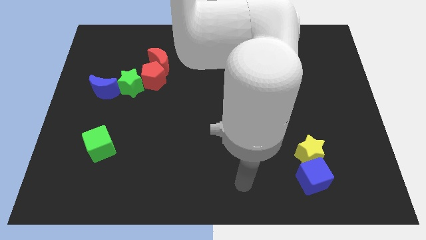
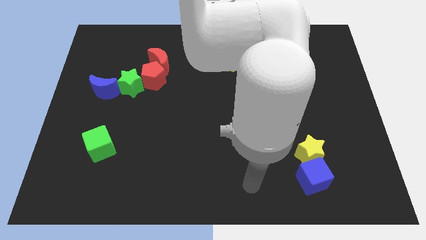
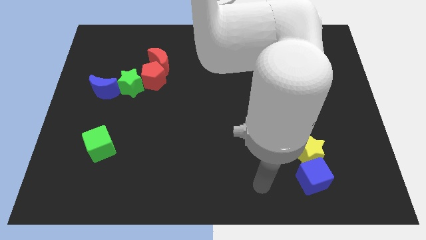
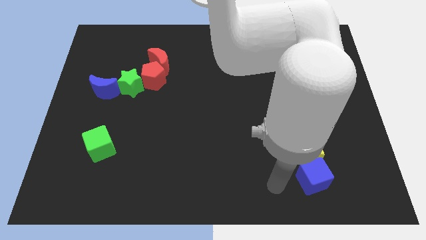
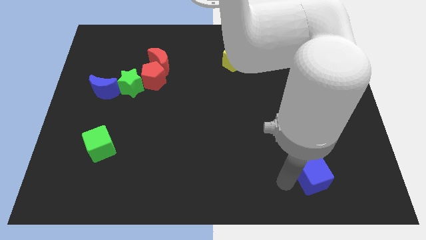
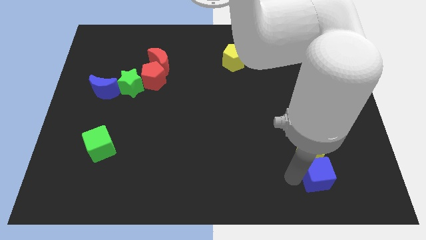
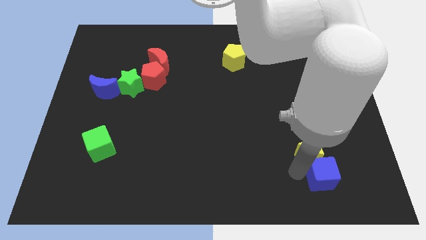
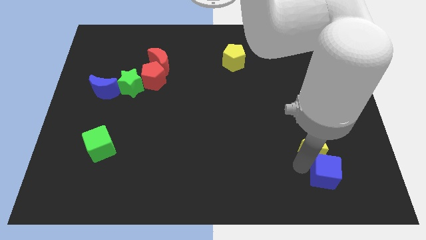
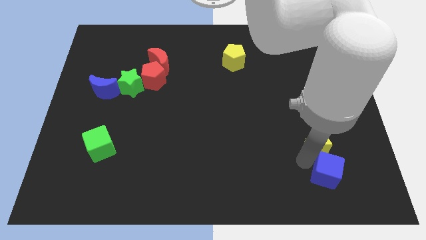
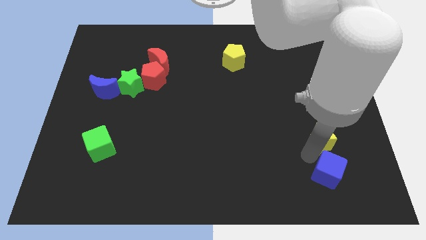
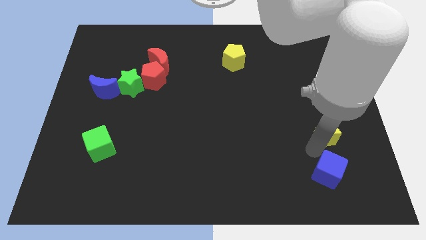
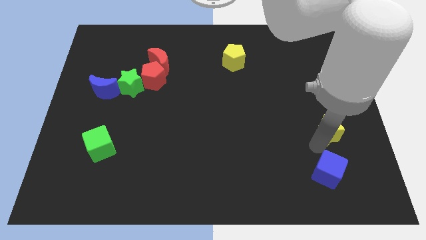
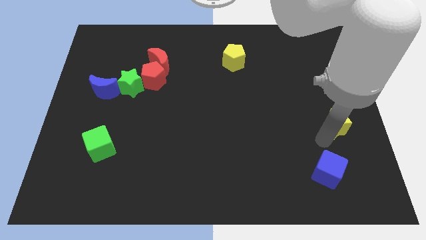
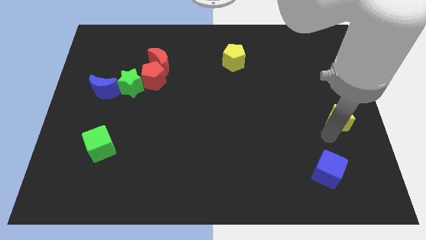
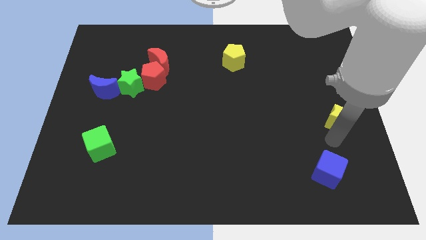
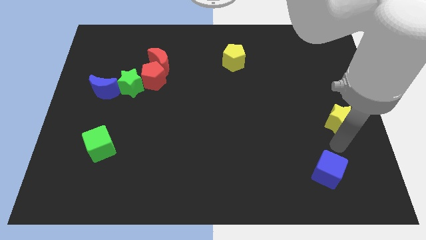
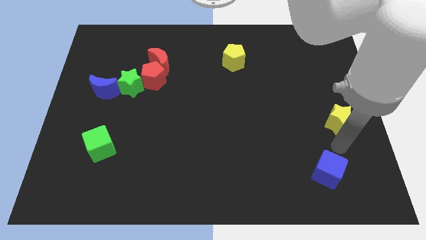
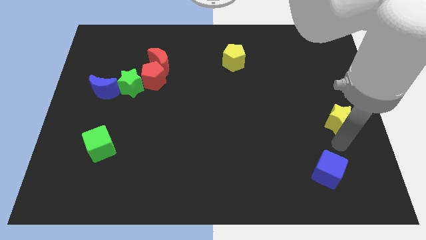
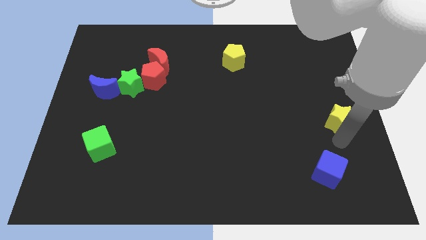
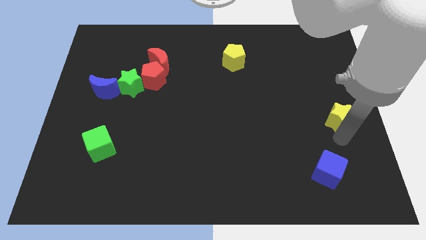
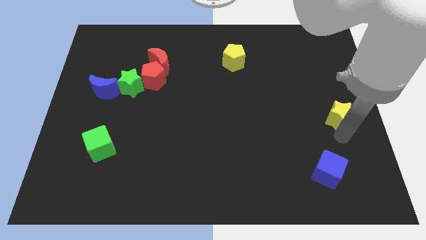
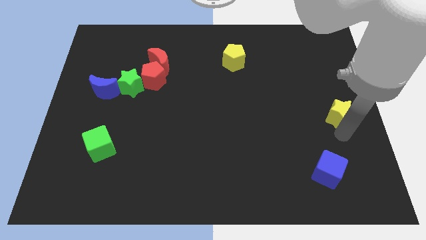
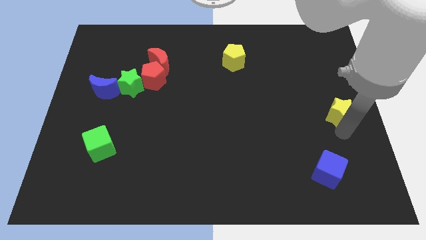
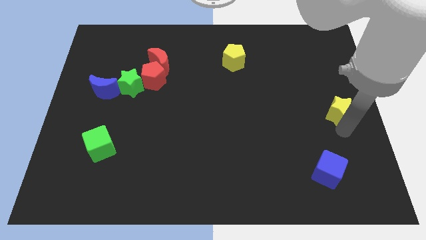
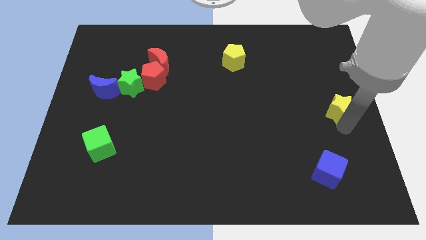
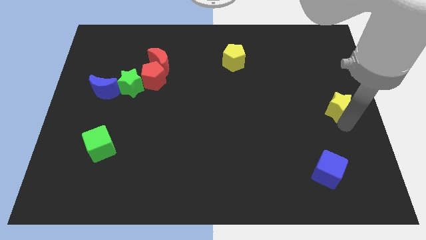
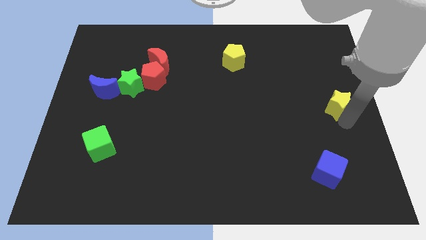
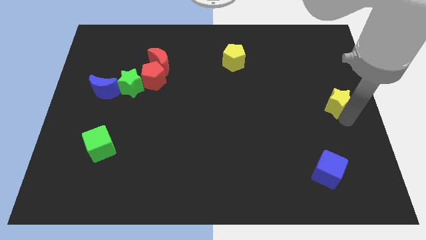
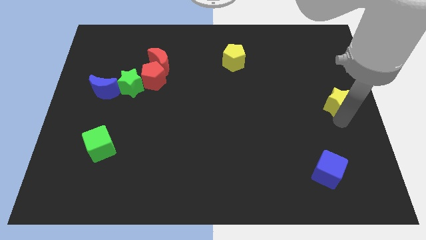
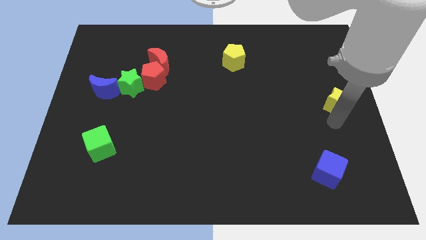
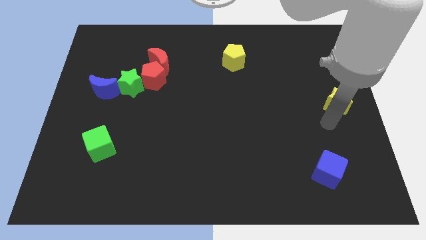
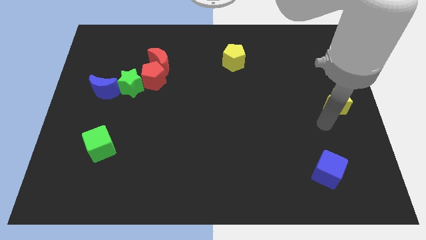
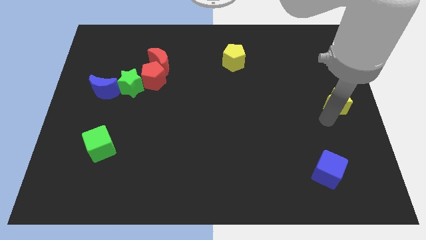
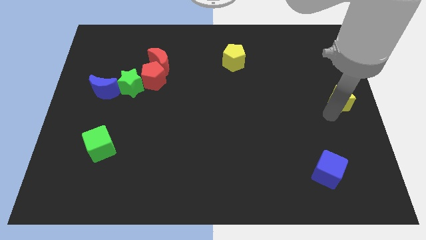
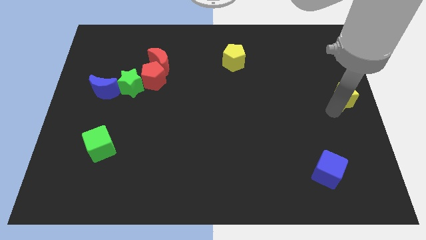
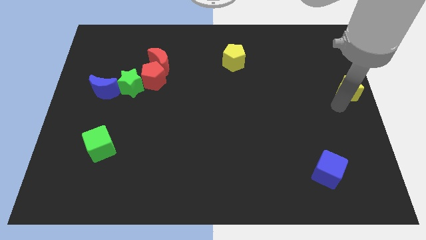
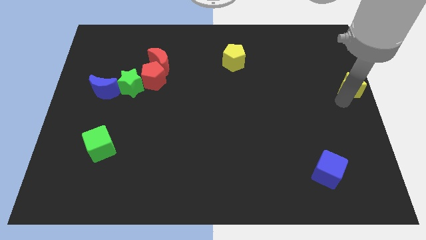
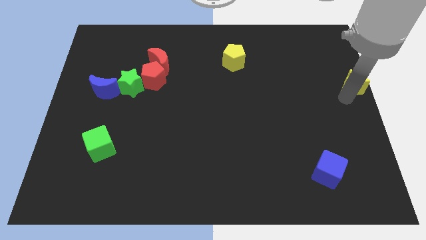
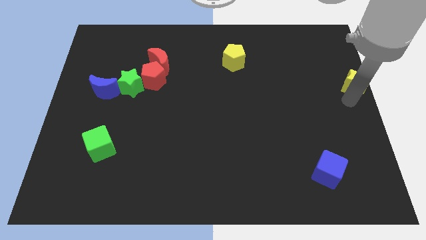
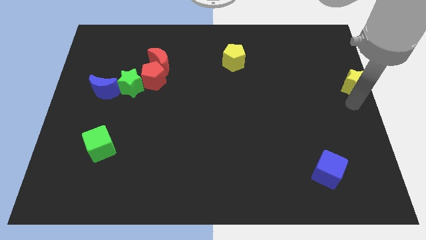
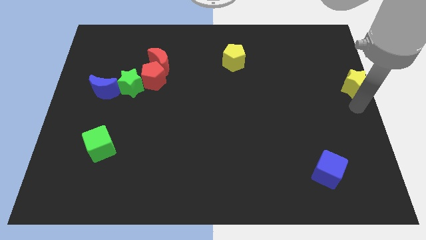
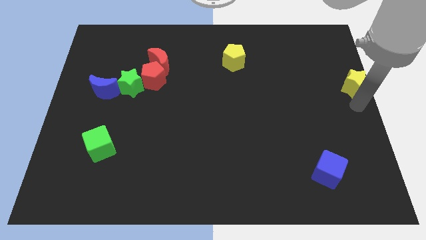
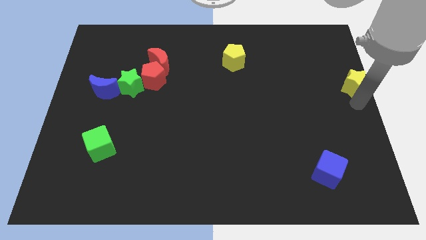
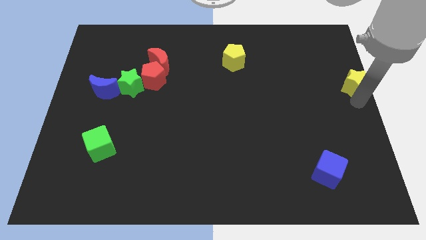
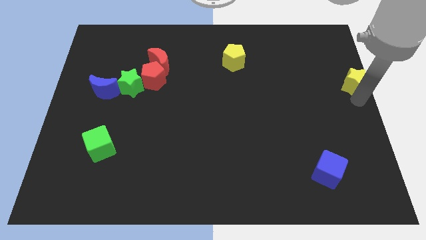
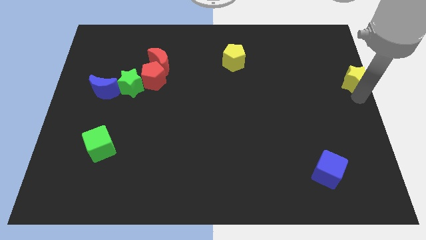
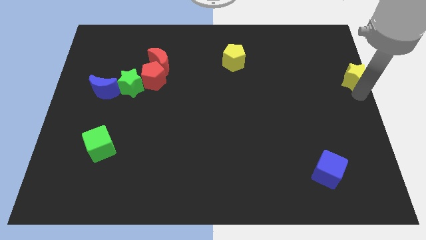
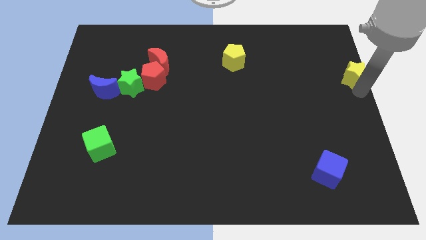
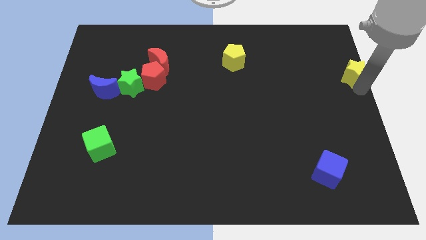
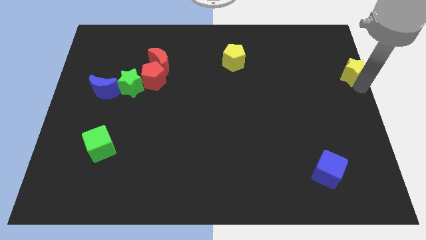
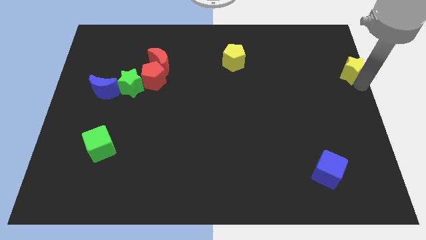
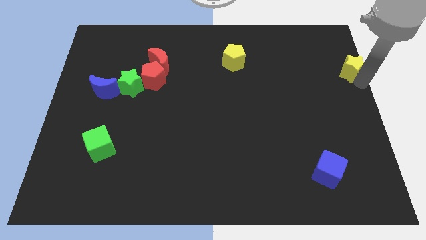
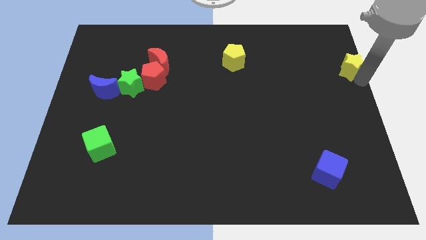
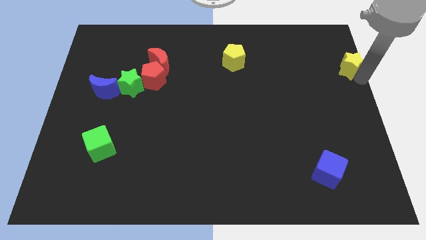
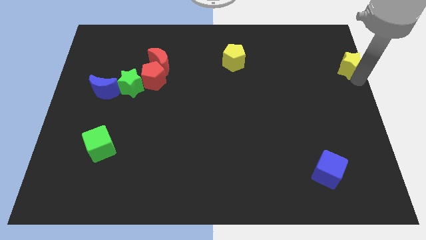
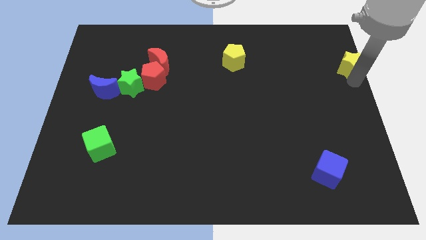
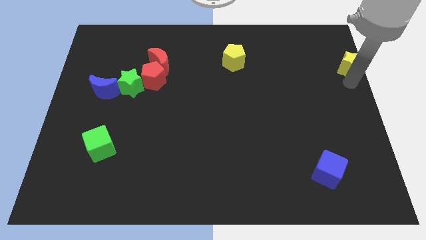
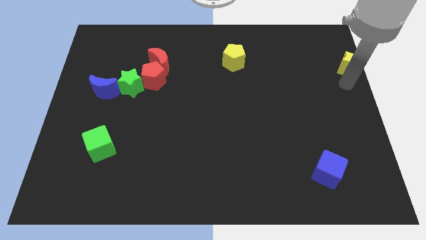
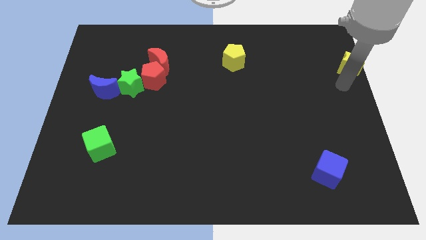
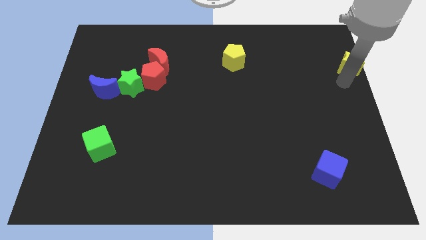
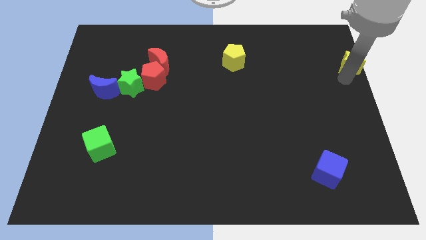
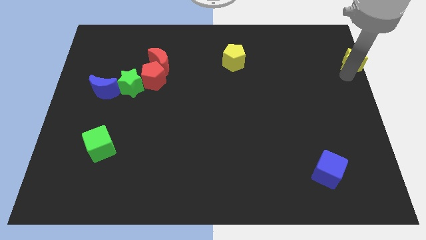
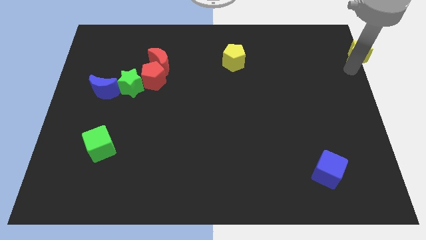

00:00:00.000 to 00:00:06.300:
move the yellow star to the upper right corner
